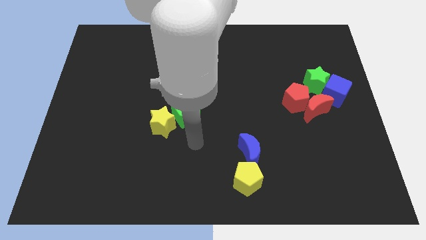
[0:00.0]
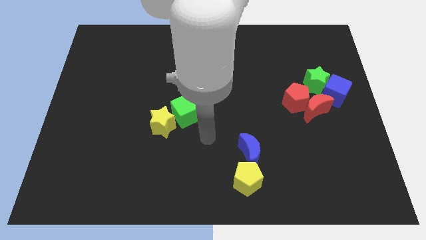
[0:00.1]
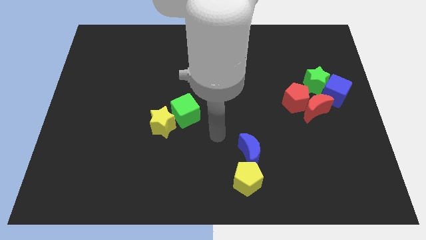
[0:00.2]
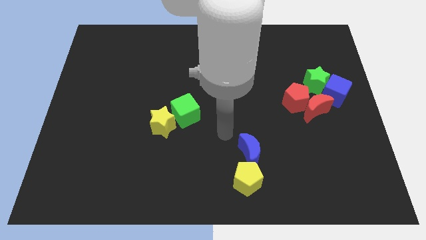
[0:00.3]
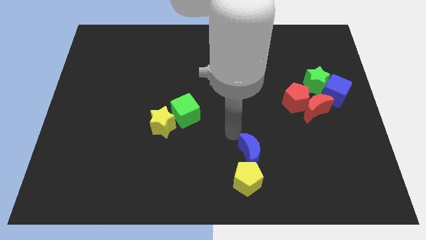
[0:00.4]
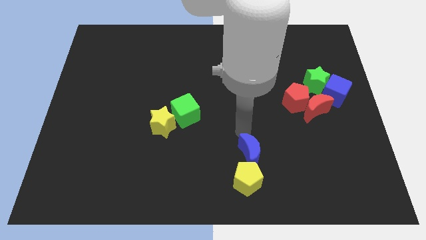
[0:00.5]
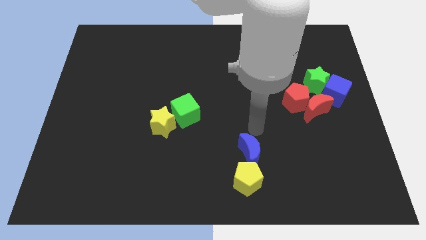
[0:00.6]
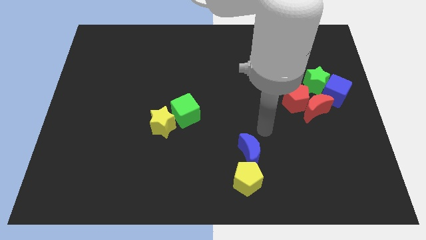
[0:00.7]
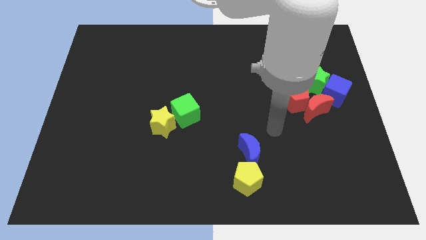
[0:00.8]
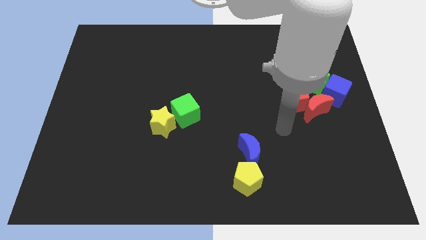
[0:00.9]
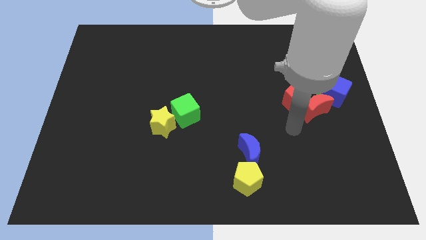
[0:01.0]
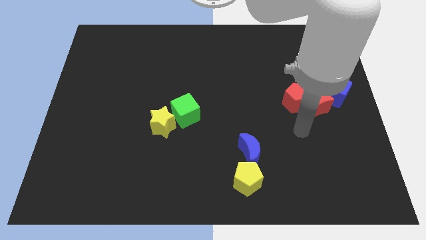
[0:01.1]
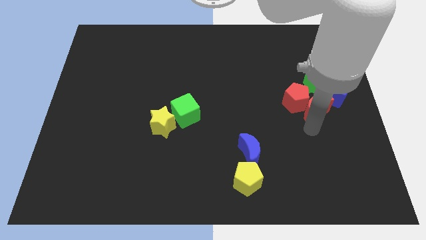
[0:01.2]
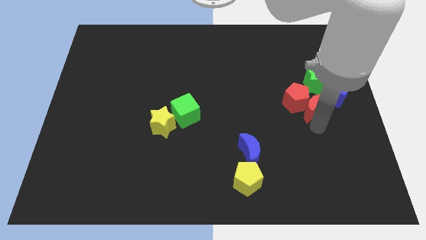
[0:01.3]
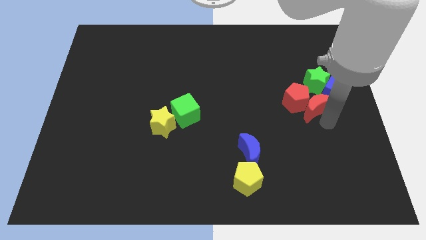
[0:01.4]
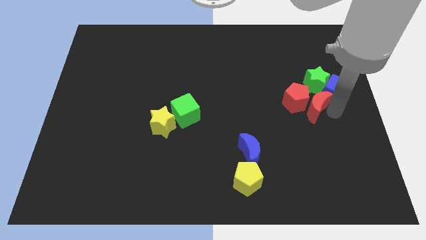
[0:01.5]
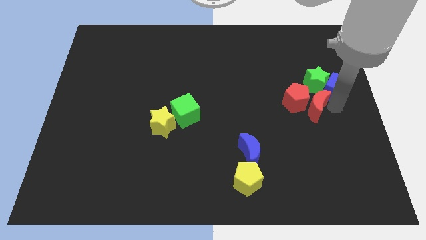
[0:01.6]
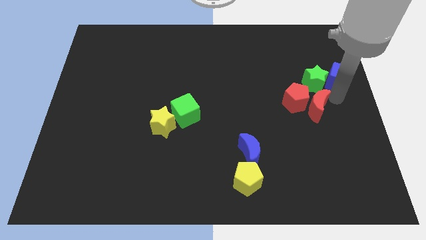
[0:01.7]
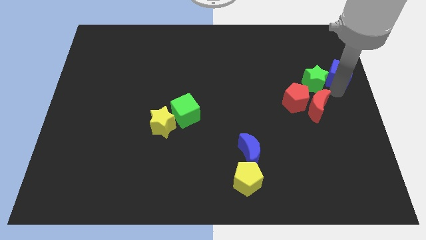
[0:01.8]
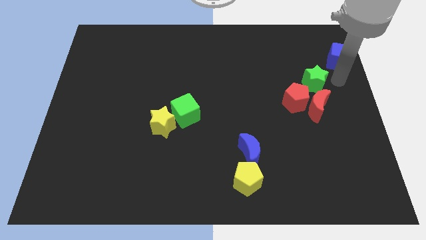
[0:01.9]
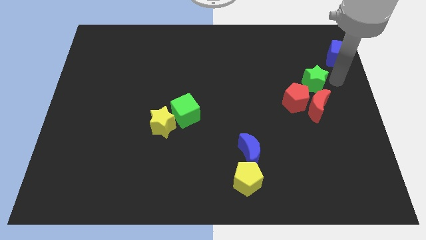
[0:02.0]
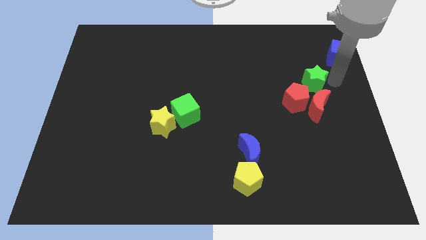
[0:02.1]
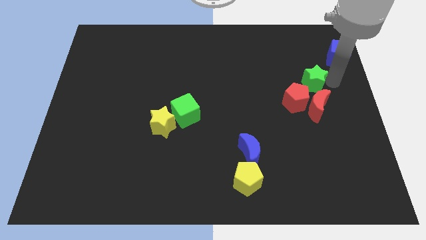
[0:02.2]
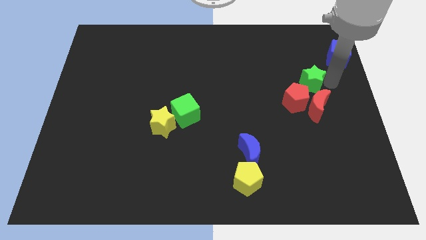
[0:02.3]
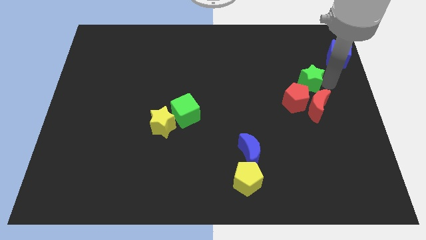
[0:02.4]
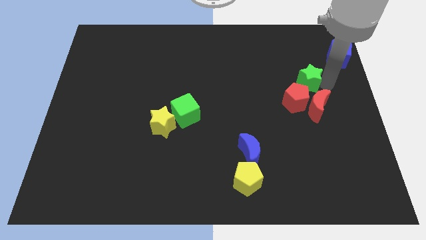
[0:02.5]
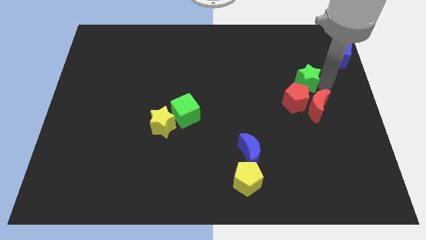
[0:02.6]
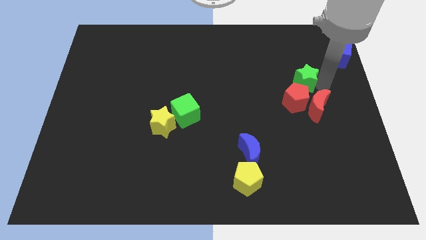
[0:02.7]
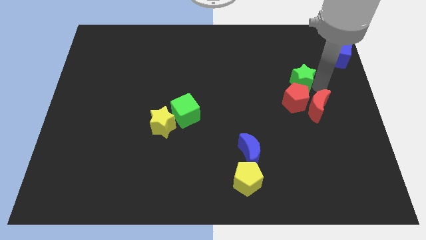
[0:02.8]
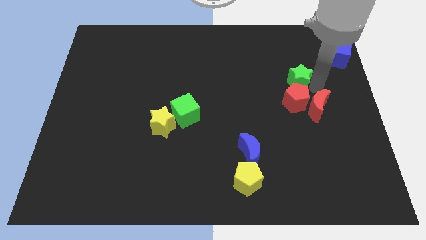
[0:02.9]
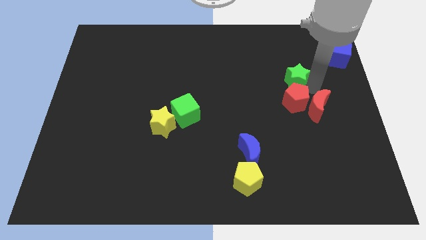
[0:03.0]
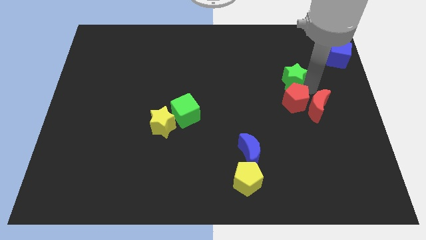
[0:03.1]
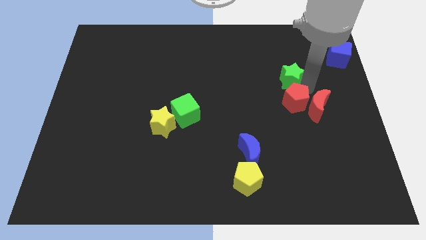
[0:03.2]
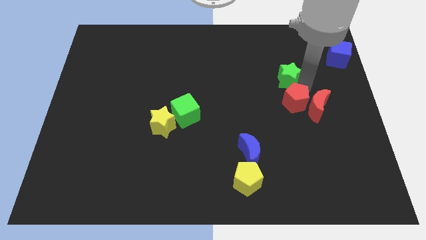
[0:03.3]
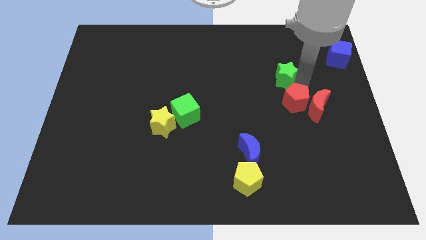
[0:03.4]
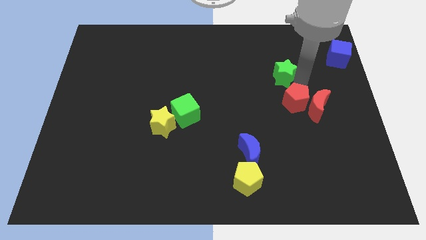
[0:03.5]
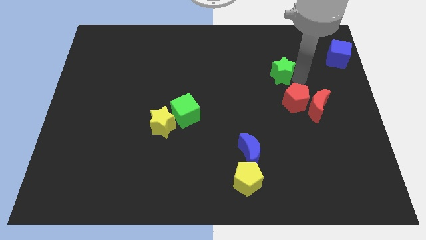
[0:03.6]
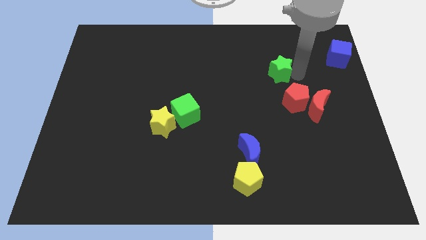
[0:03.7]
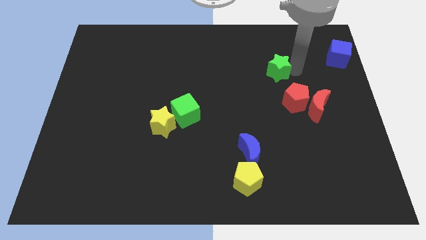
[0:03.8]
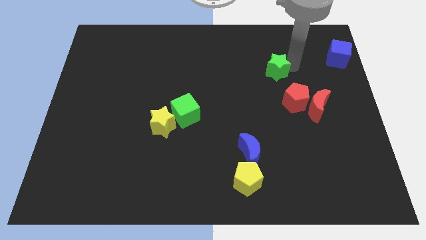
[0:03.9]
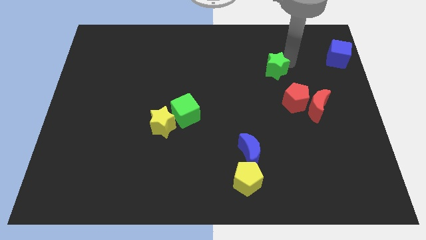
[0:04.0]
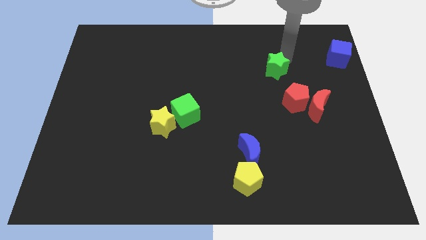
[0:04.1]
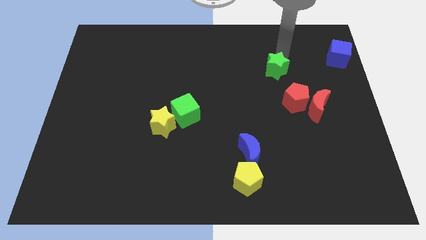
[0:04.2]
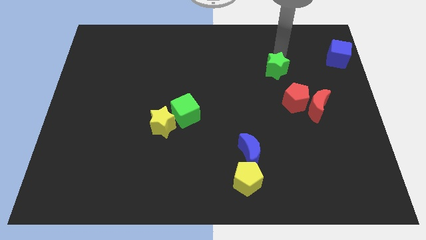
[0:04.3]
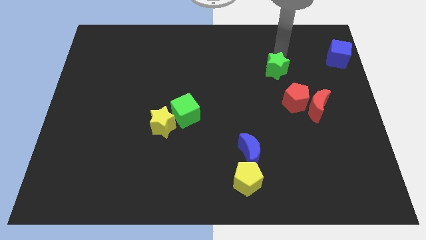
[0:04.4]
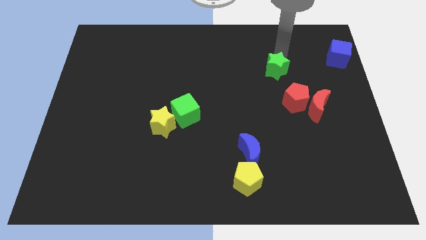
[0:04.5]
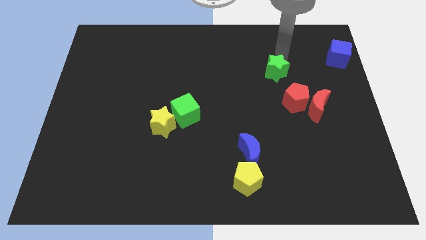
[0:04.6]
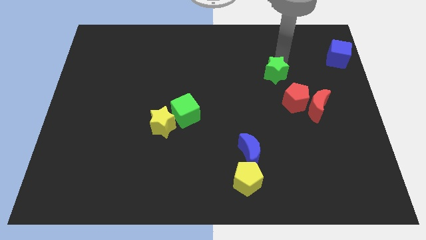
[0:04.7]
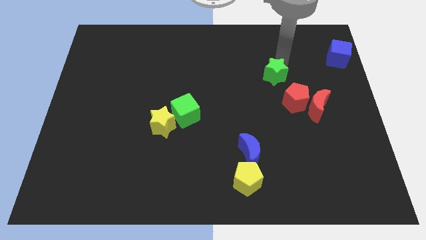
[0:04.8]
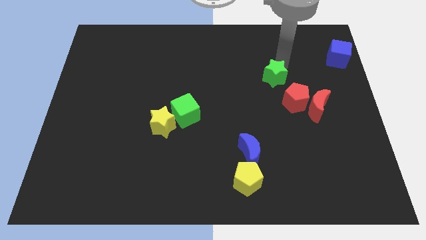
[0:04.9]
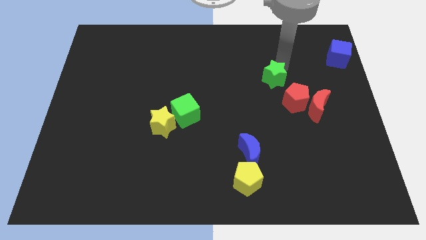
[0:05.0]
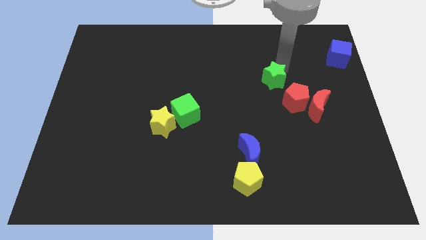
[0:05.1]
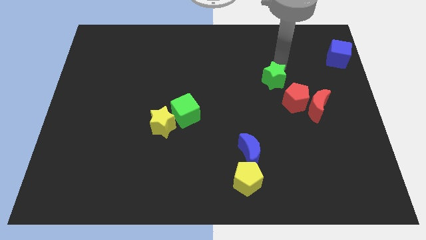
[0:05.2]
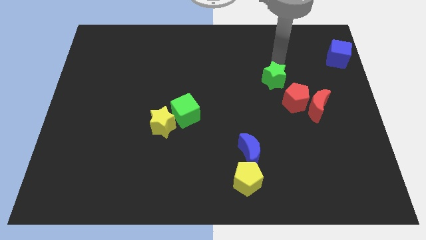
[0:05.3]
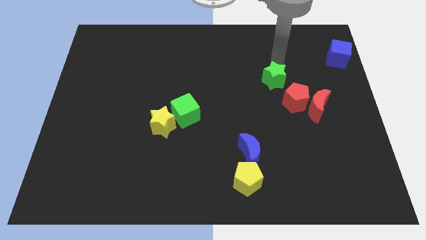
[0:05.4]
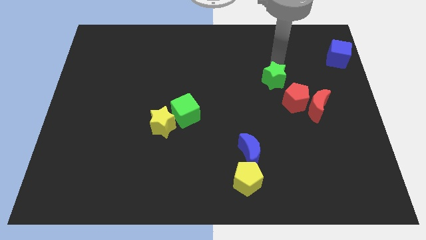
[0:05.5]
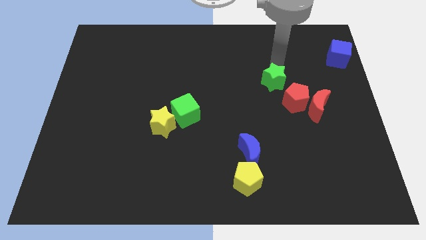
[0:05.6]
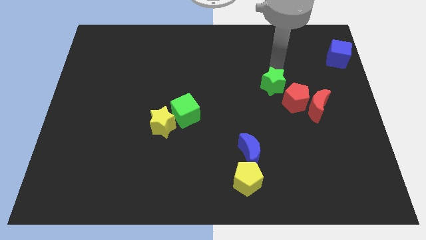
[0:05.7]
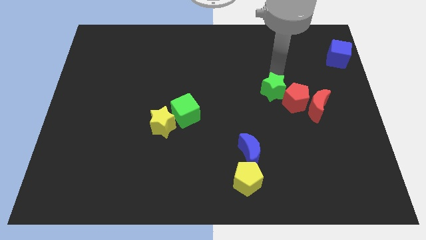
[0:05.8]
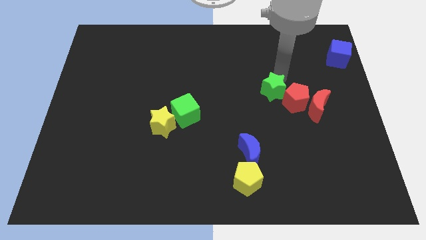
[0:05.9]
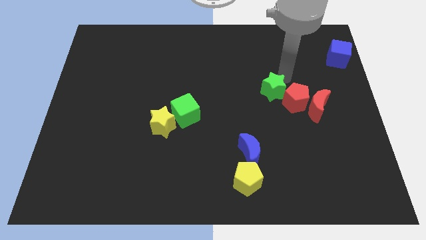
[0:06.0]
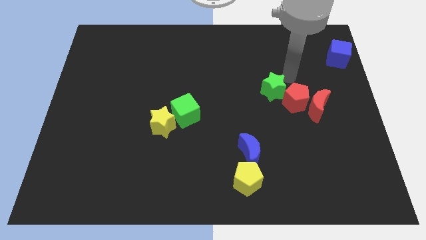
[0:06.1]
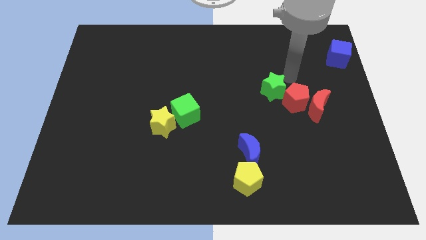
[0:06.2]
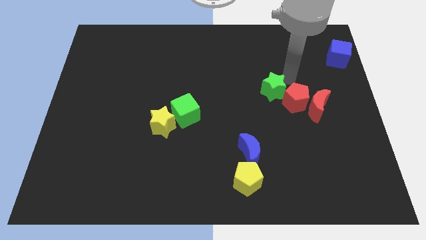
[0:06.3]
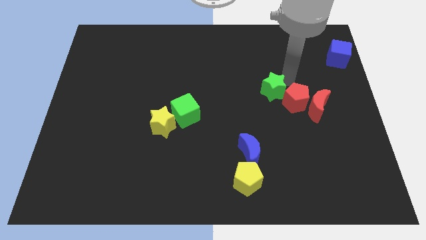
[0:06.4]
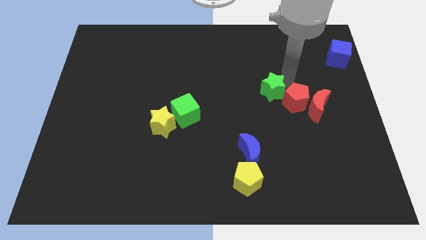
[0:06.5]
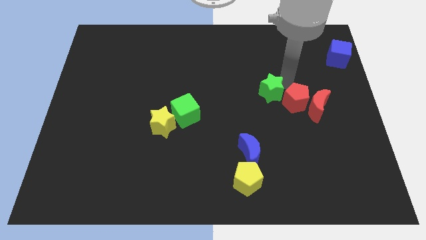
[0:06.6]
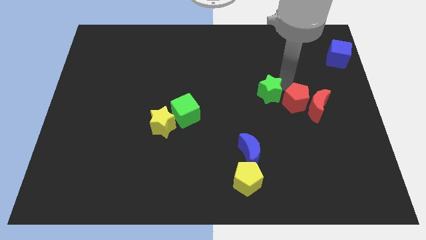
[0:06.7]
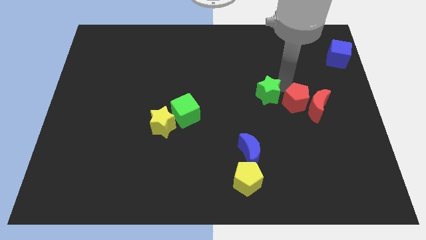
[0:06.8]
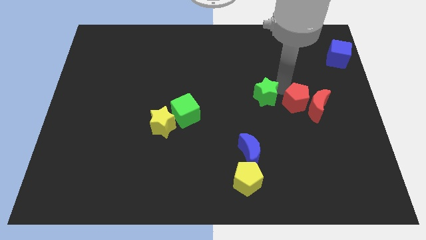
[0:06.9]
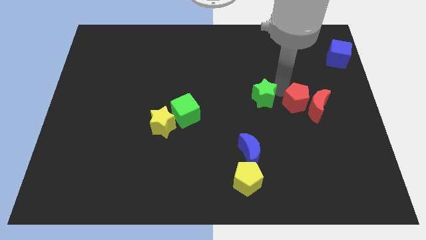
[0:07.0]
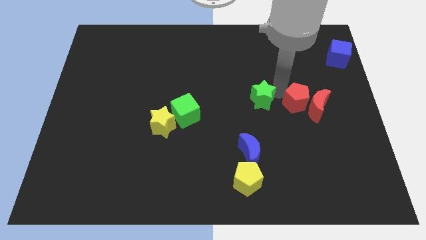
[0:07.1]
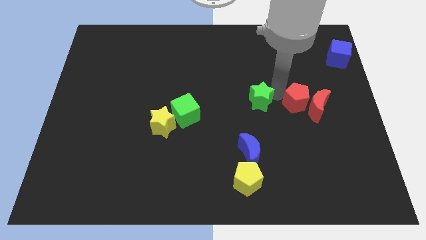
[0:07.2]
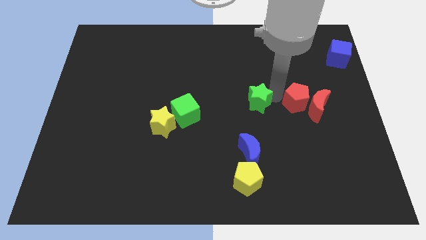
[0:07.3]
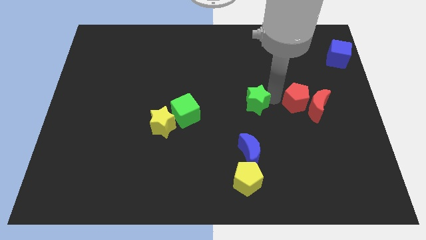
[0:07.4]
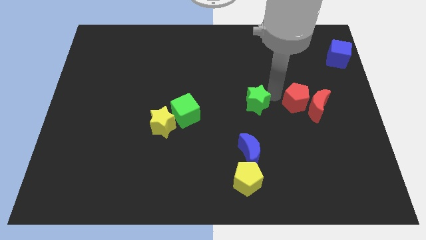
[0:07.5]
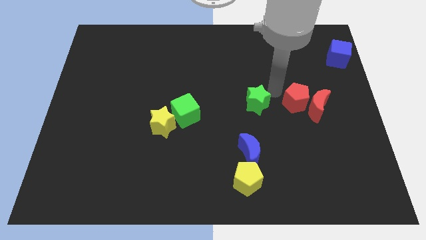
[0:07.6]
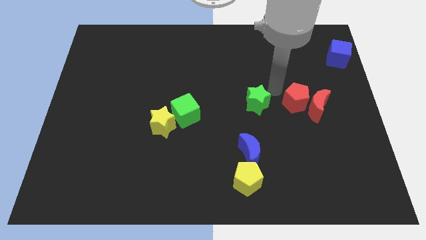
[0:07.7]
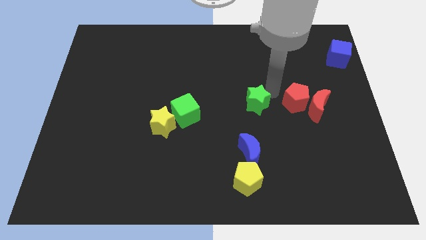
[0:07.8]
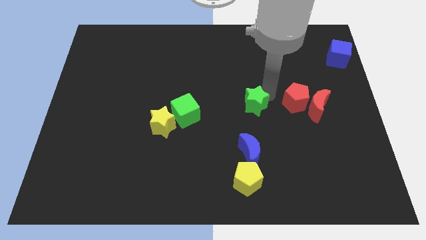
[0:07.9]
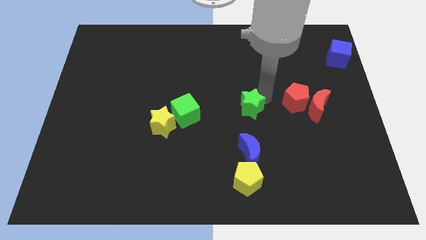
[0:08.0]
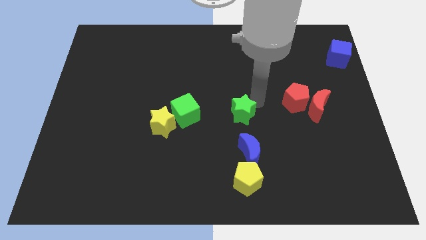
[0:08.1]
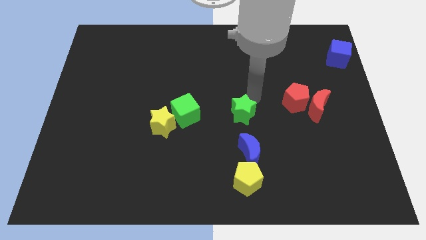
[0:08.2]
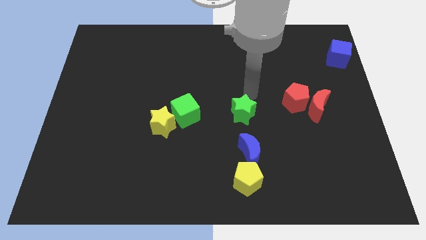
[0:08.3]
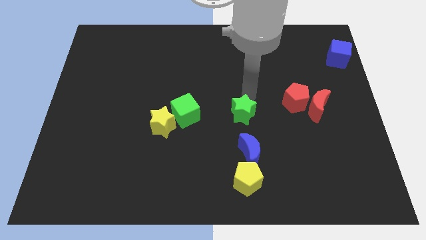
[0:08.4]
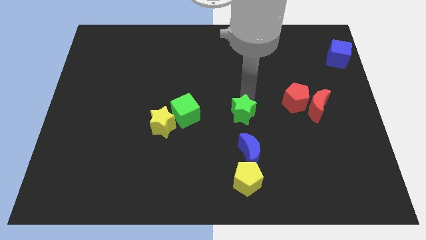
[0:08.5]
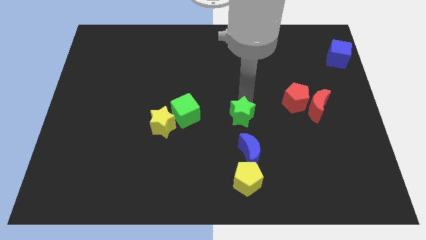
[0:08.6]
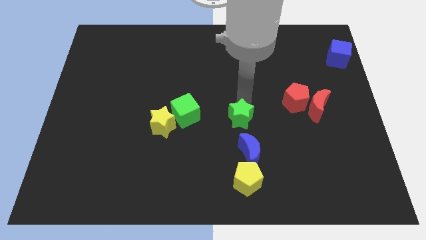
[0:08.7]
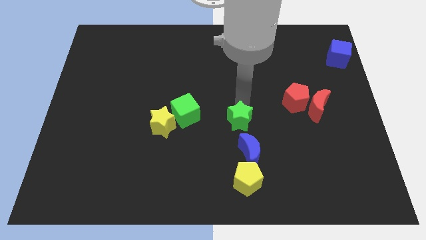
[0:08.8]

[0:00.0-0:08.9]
push the green star diagonally downwards and to the left
